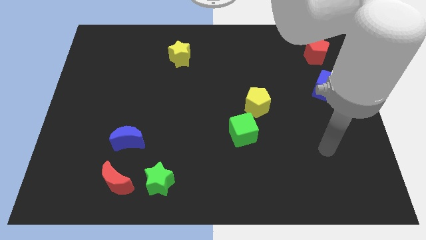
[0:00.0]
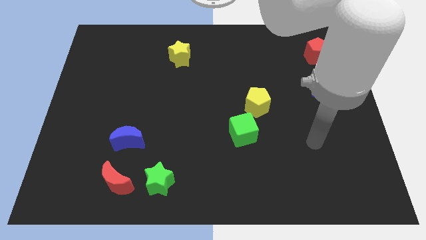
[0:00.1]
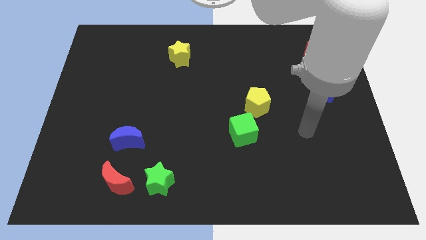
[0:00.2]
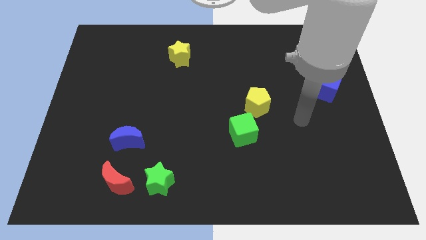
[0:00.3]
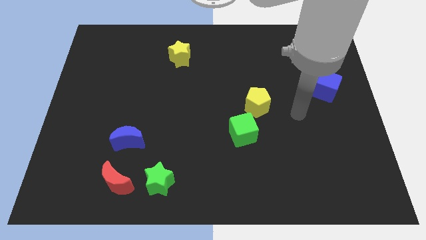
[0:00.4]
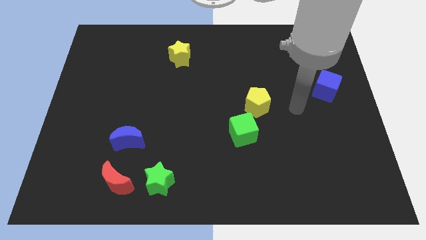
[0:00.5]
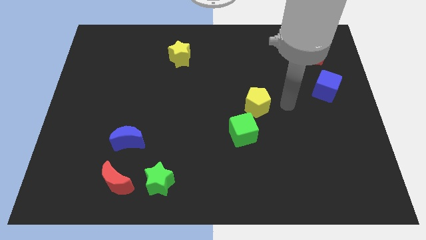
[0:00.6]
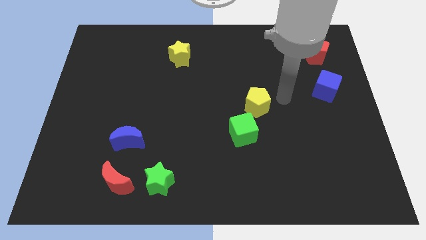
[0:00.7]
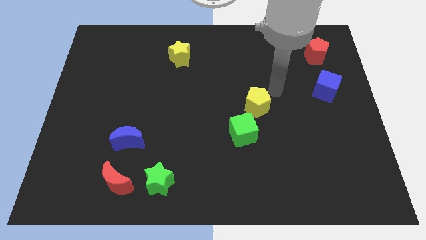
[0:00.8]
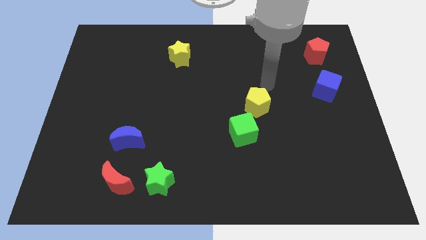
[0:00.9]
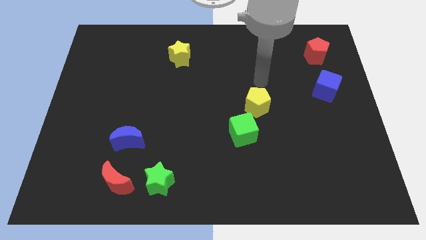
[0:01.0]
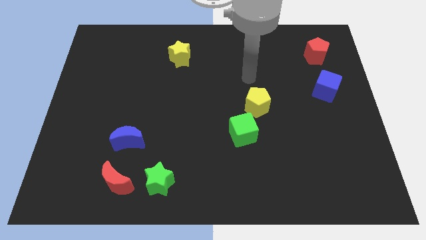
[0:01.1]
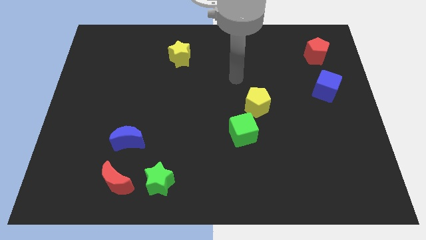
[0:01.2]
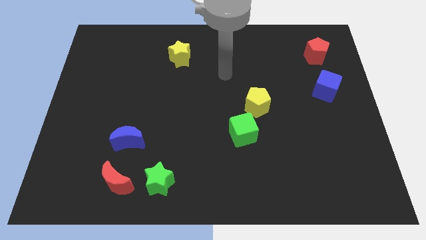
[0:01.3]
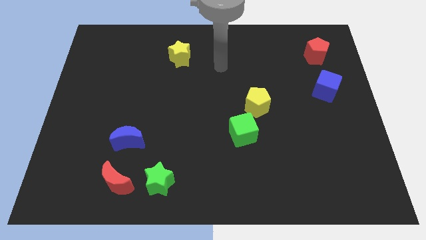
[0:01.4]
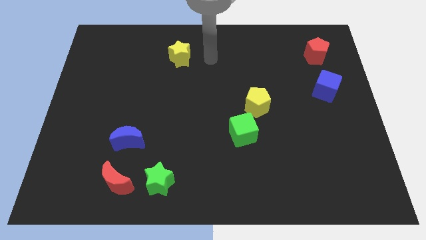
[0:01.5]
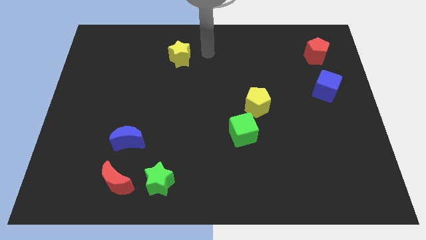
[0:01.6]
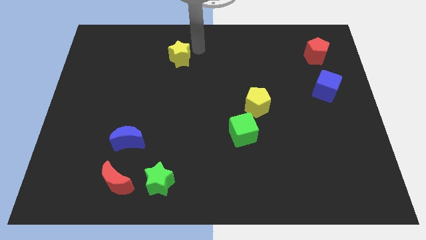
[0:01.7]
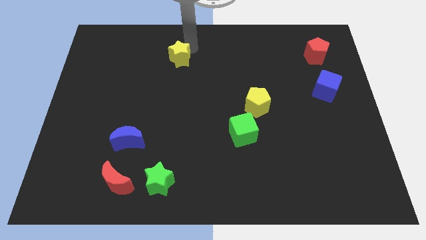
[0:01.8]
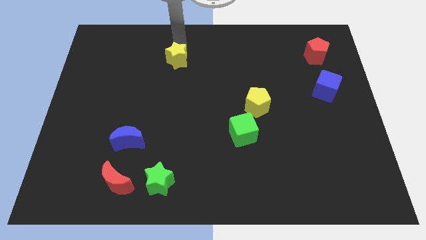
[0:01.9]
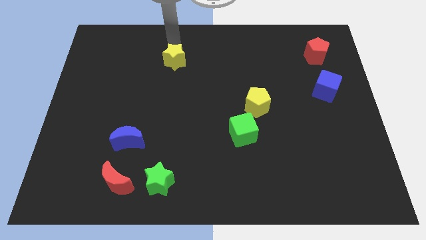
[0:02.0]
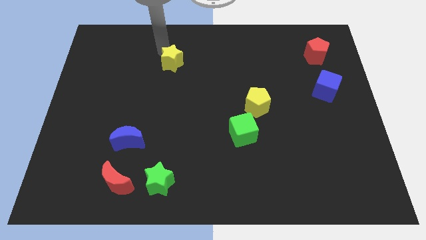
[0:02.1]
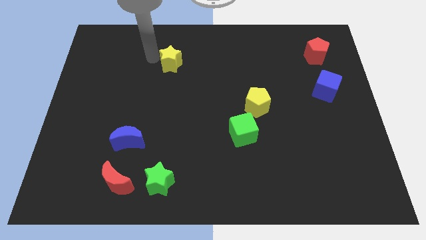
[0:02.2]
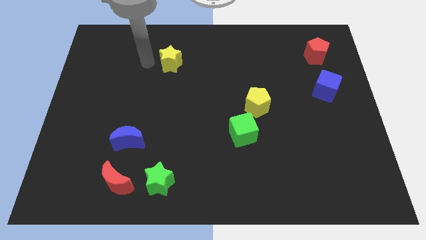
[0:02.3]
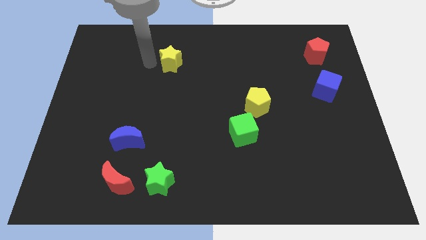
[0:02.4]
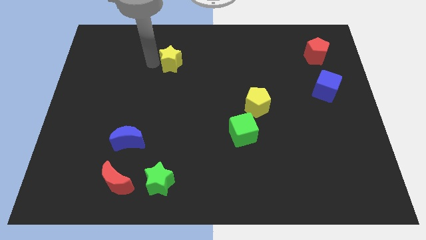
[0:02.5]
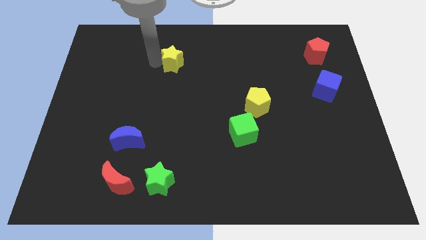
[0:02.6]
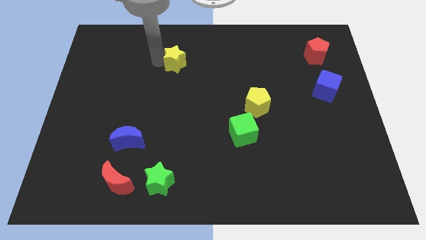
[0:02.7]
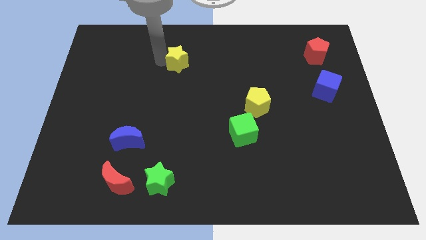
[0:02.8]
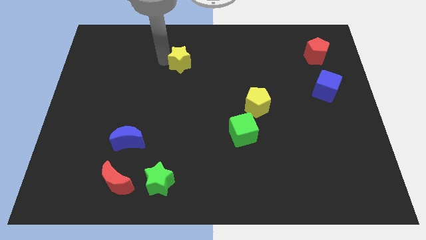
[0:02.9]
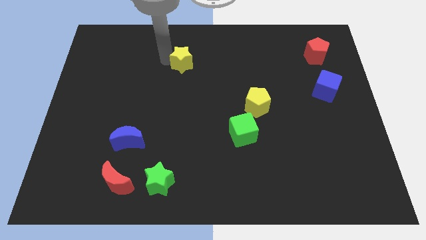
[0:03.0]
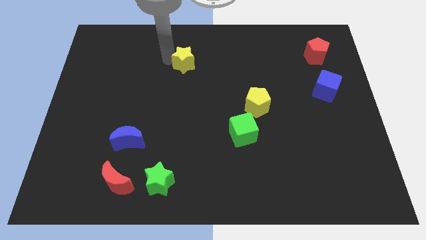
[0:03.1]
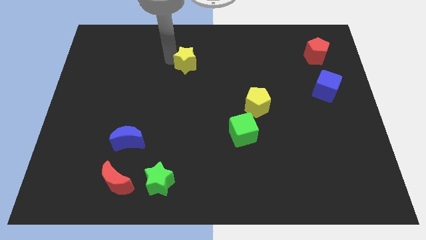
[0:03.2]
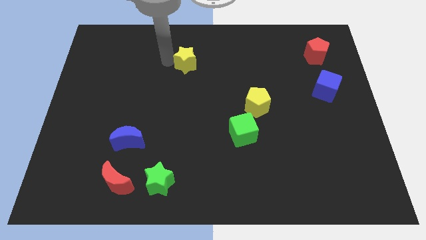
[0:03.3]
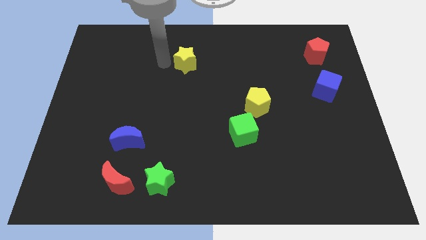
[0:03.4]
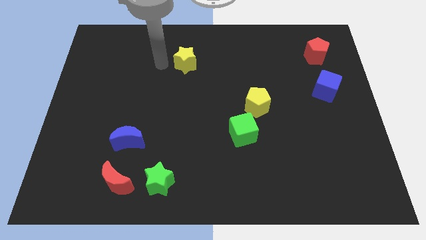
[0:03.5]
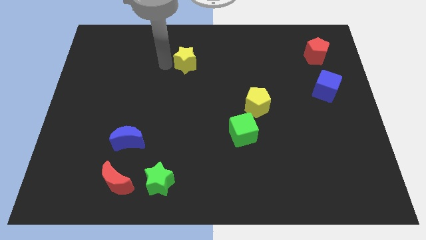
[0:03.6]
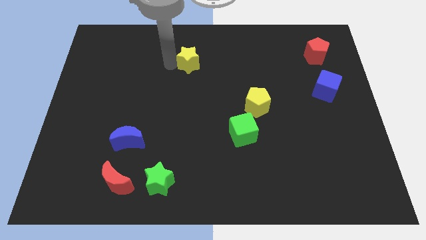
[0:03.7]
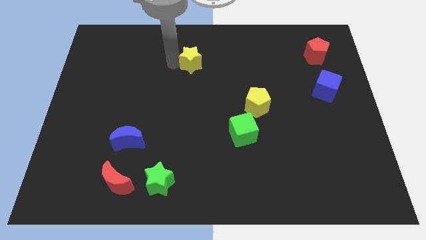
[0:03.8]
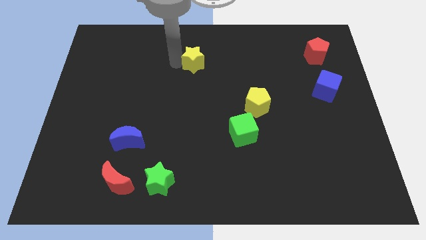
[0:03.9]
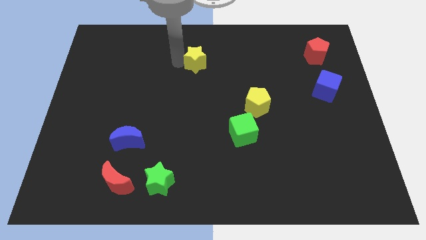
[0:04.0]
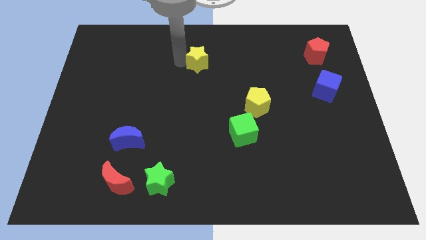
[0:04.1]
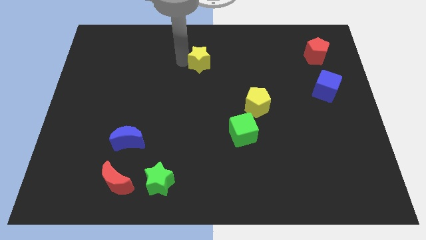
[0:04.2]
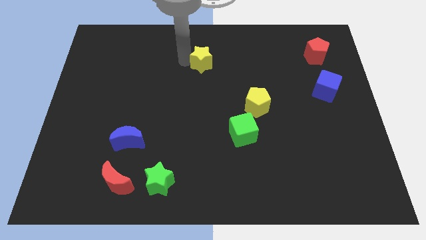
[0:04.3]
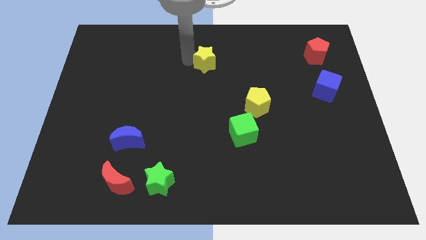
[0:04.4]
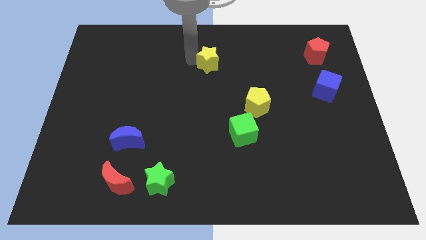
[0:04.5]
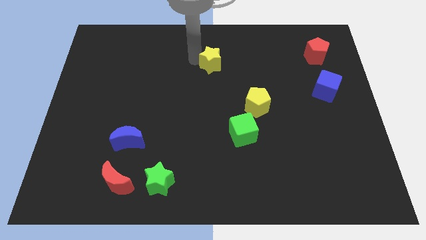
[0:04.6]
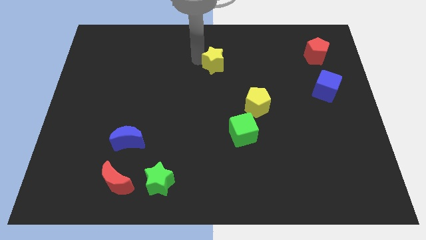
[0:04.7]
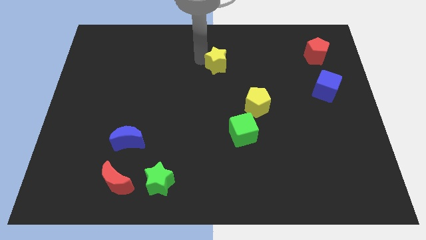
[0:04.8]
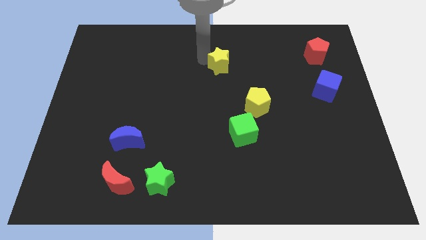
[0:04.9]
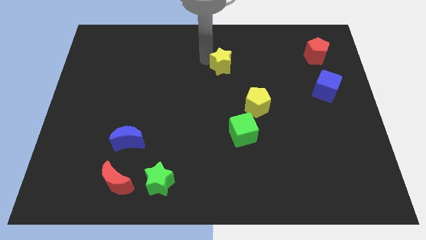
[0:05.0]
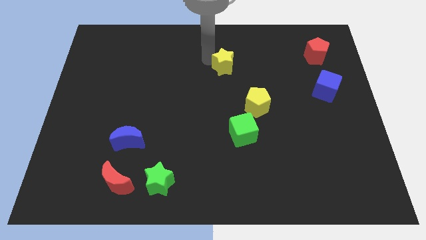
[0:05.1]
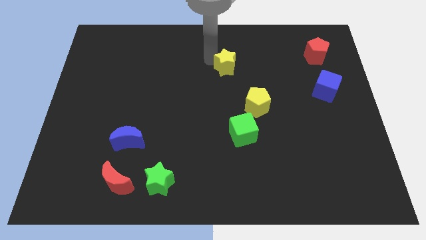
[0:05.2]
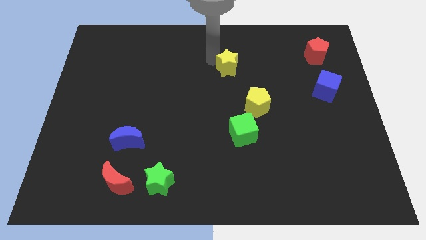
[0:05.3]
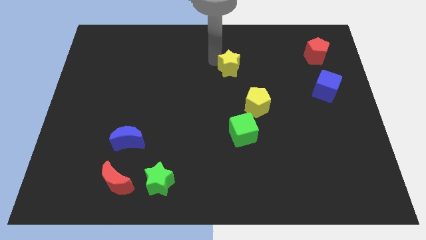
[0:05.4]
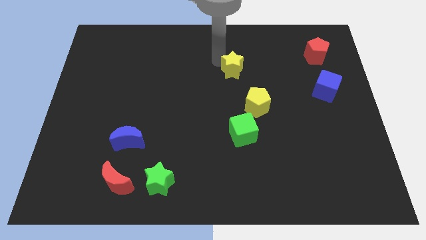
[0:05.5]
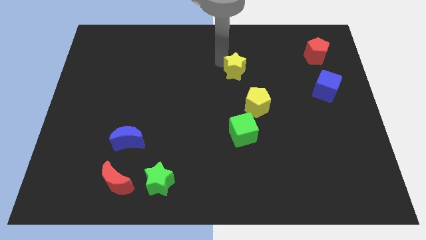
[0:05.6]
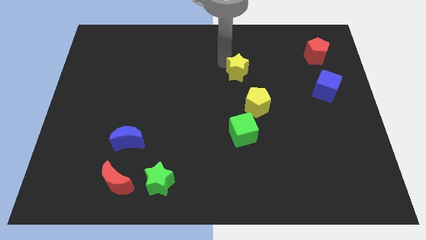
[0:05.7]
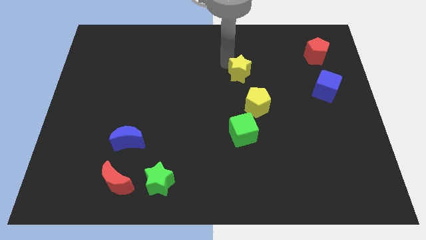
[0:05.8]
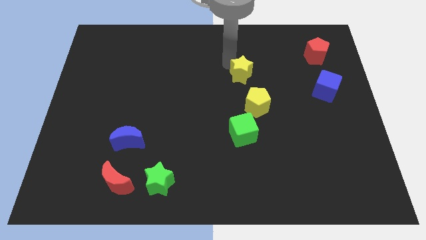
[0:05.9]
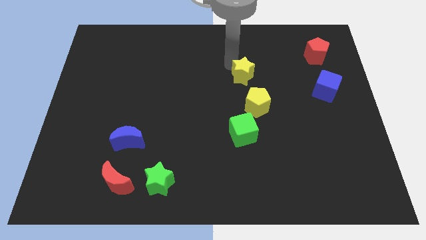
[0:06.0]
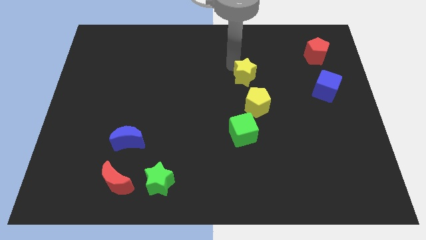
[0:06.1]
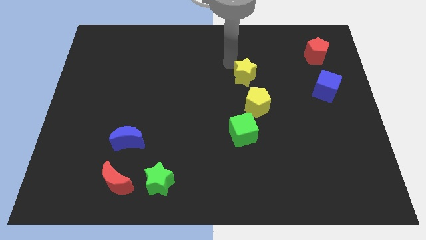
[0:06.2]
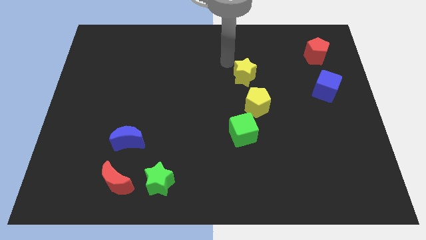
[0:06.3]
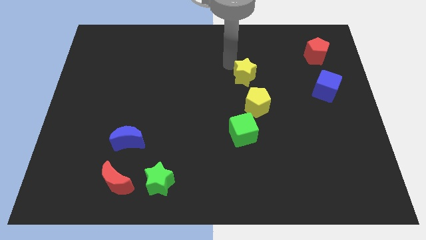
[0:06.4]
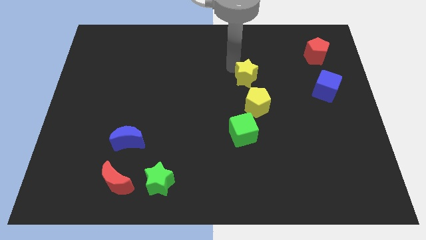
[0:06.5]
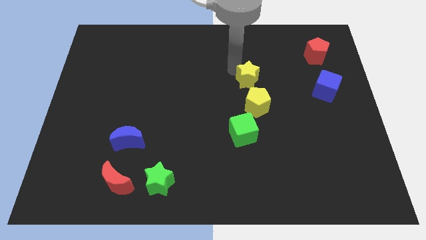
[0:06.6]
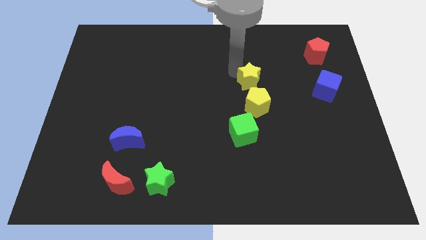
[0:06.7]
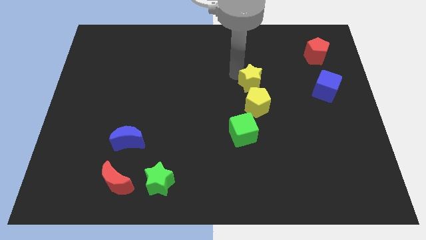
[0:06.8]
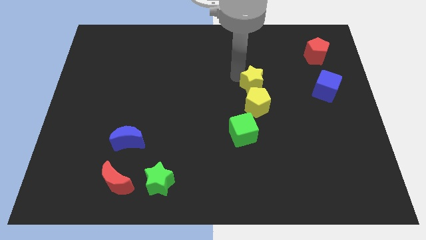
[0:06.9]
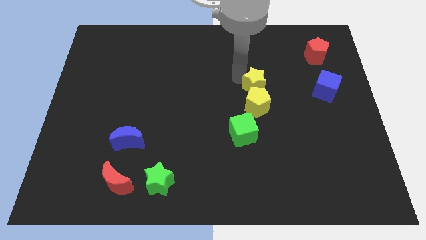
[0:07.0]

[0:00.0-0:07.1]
move the yellow star to the top right of the yellow pentagon

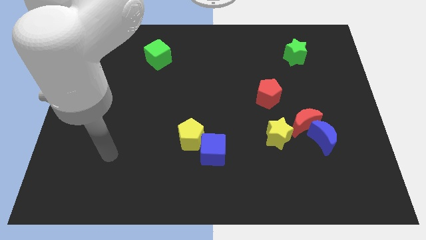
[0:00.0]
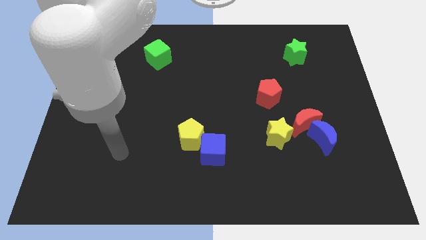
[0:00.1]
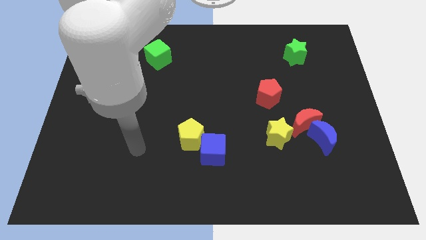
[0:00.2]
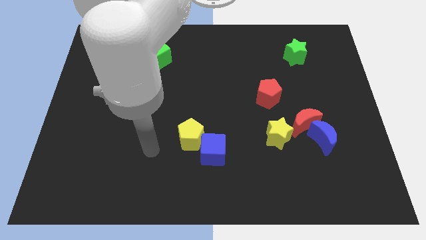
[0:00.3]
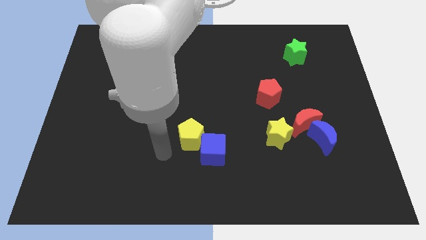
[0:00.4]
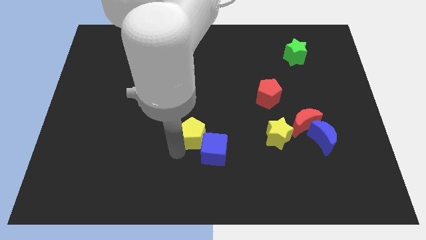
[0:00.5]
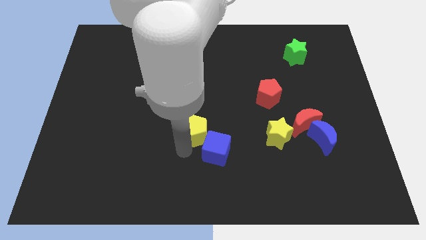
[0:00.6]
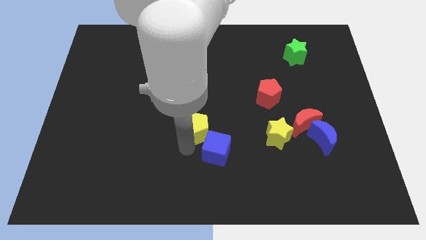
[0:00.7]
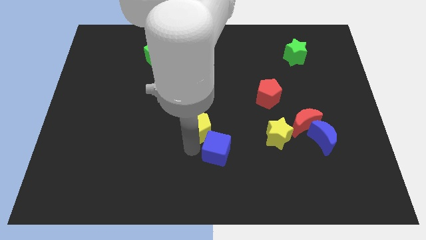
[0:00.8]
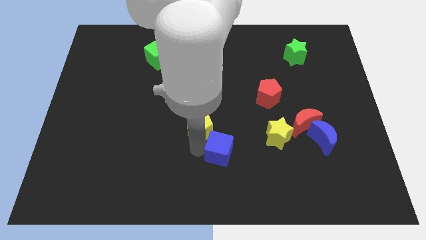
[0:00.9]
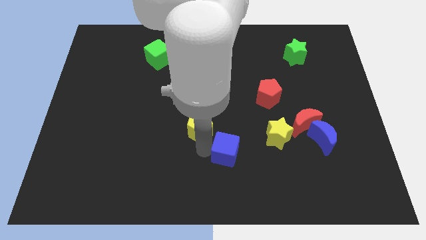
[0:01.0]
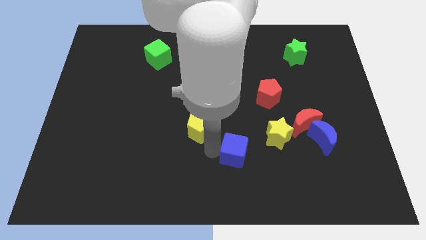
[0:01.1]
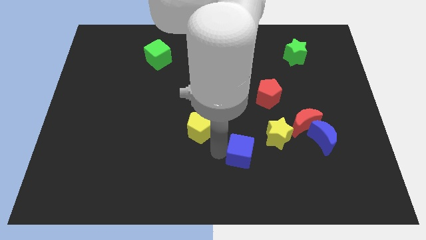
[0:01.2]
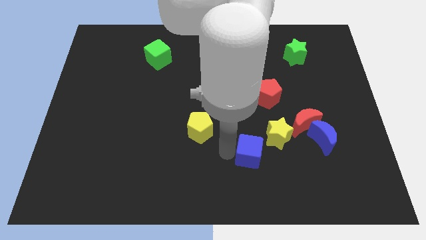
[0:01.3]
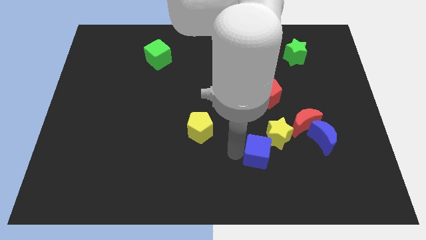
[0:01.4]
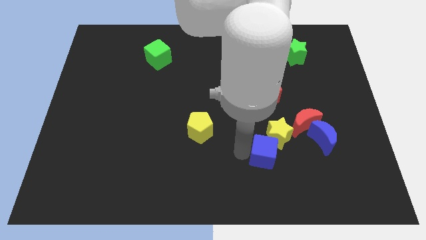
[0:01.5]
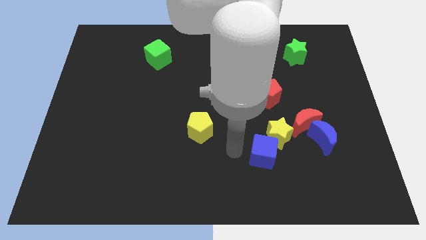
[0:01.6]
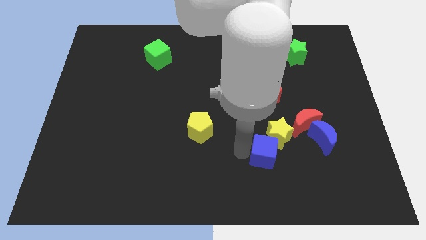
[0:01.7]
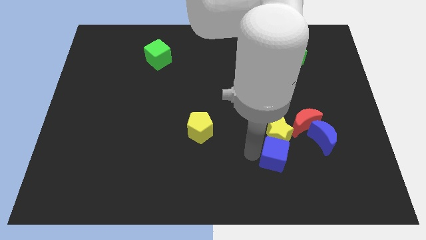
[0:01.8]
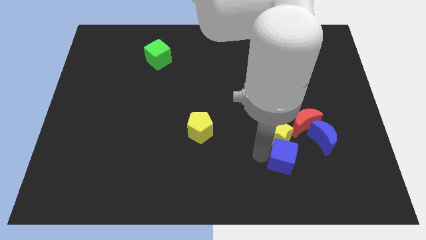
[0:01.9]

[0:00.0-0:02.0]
put the blue cube diagonally down and to the left of the blue moon
